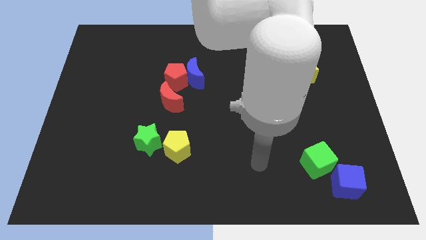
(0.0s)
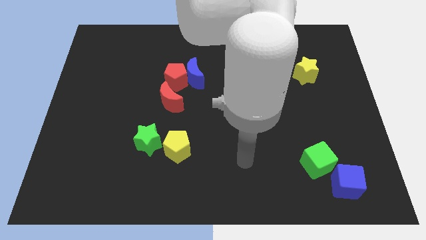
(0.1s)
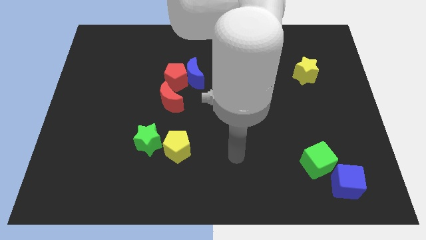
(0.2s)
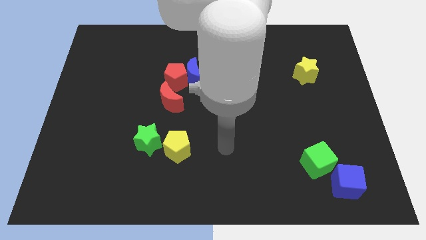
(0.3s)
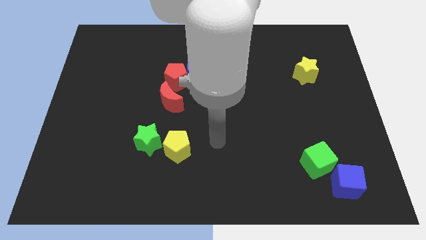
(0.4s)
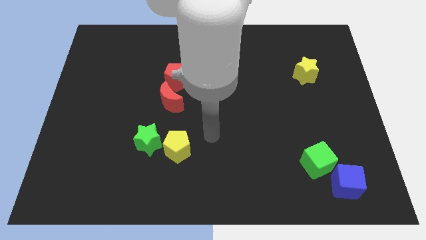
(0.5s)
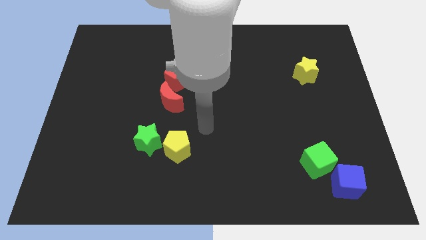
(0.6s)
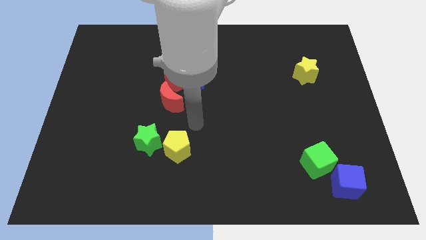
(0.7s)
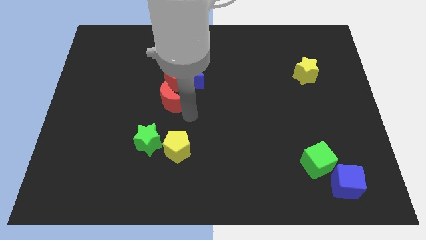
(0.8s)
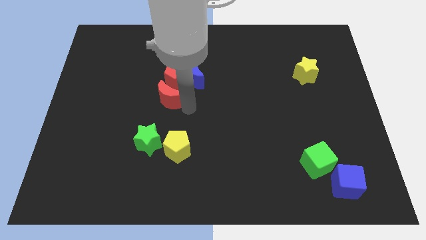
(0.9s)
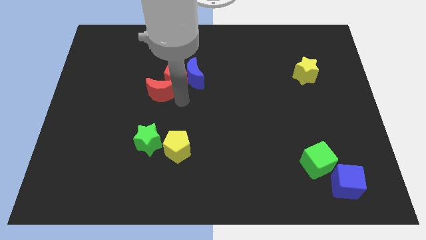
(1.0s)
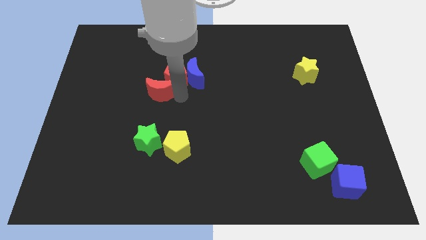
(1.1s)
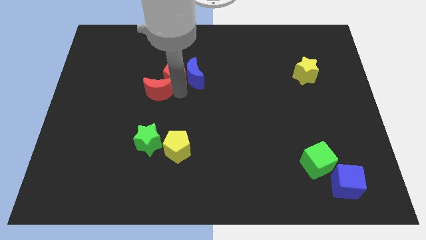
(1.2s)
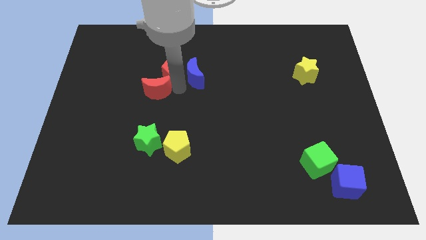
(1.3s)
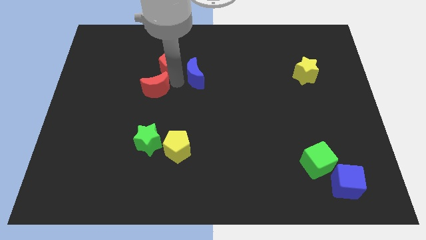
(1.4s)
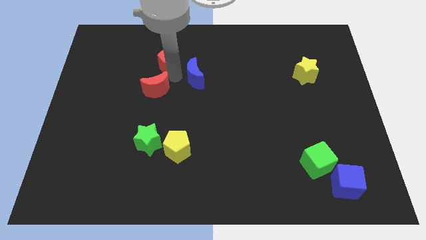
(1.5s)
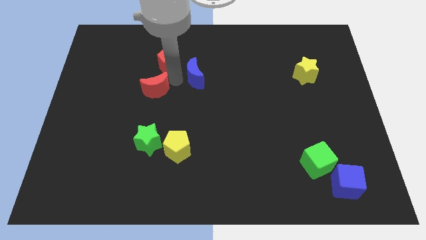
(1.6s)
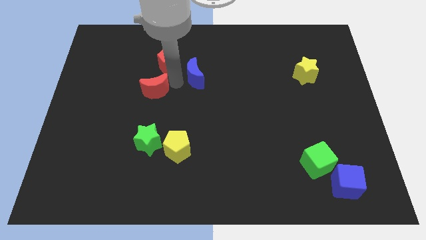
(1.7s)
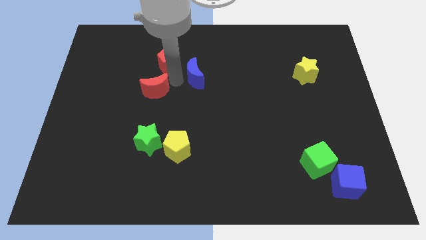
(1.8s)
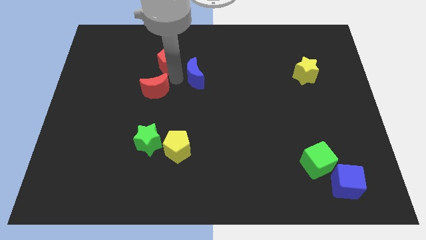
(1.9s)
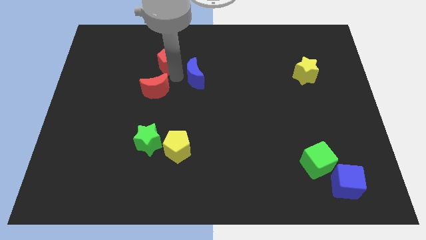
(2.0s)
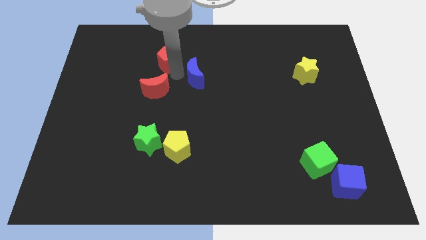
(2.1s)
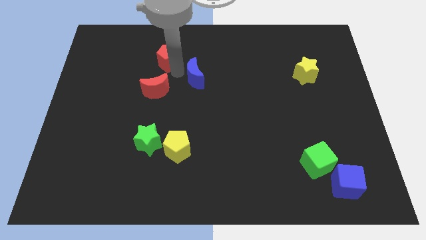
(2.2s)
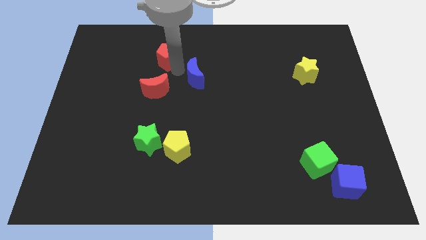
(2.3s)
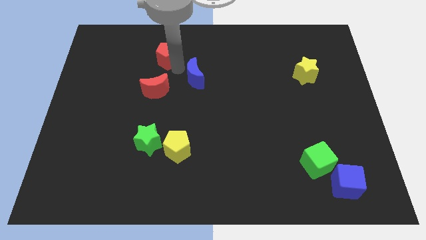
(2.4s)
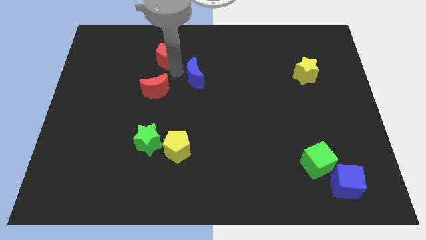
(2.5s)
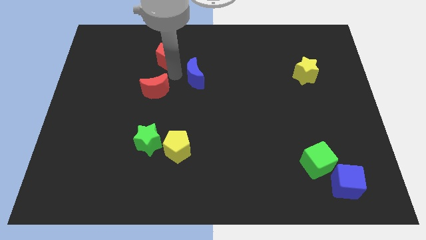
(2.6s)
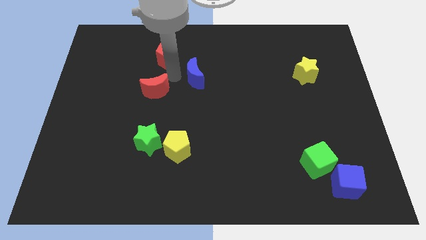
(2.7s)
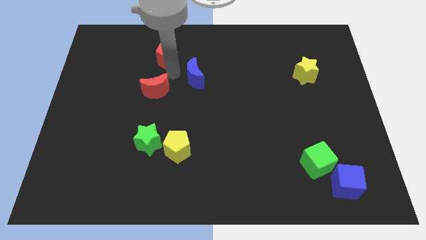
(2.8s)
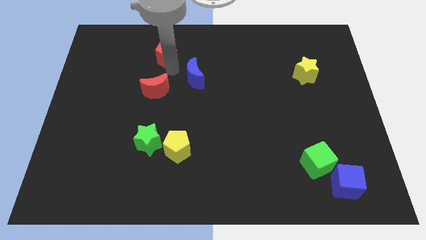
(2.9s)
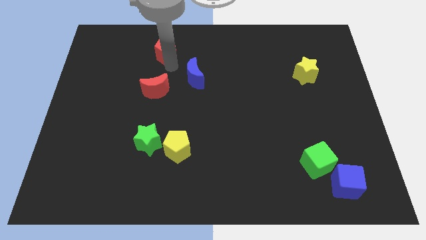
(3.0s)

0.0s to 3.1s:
move the red pentagon away from the blue moon and red moon

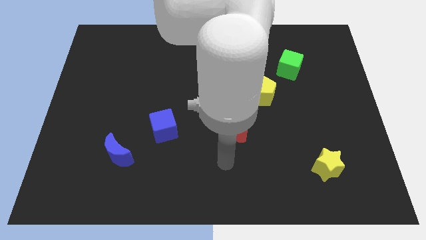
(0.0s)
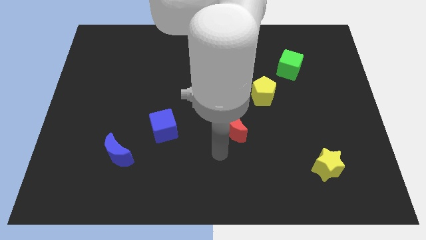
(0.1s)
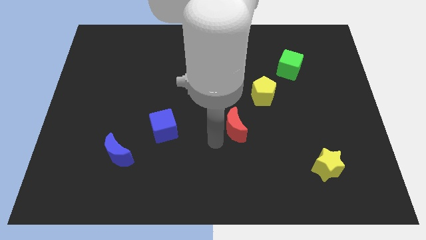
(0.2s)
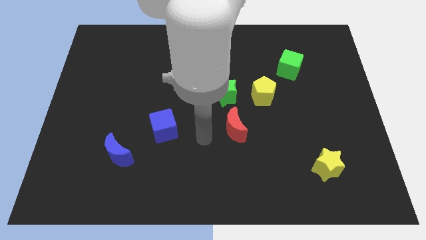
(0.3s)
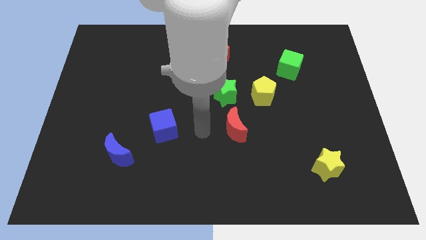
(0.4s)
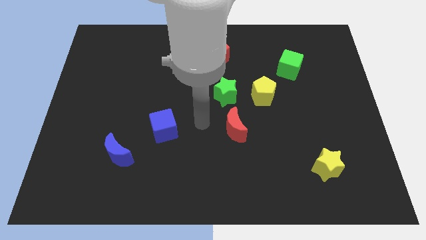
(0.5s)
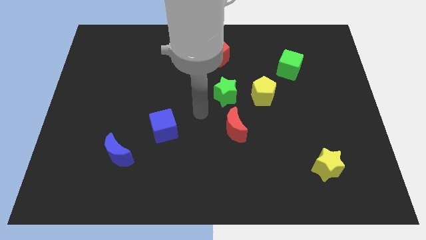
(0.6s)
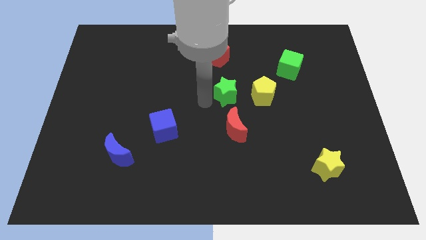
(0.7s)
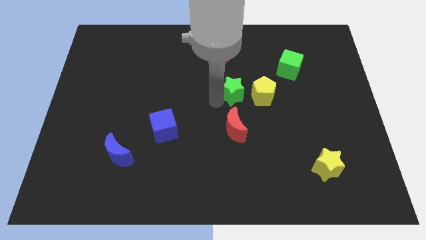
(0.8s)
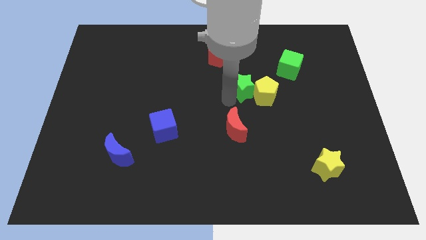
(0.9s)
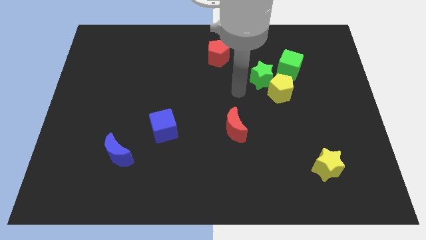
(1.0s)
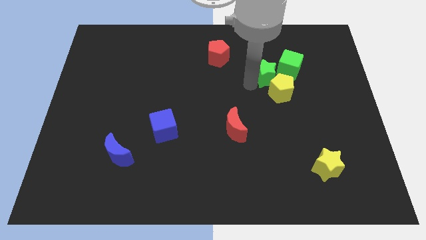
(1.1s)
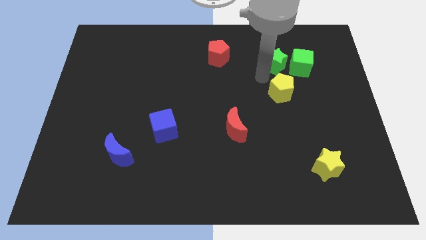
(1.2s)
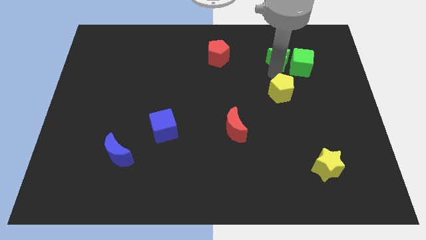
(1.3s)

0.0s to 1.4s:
separate the yellow pentagon from the green star

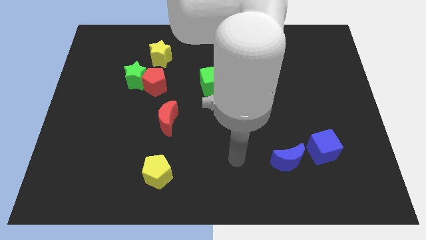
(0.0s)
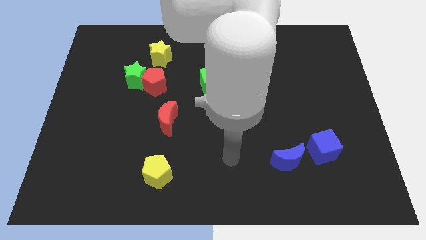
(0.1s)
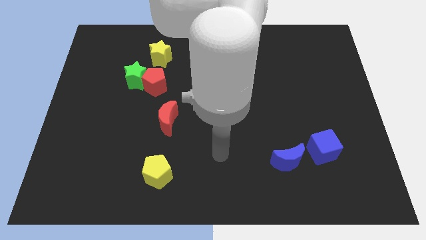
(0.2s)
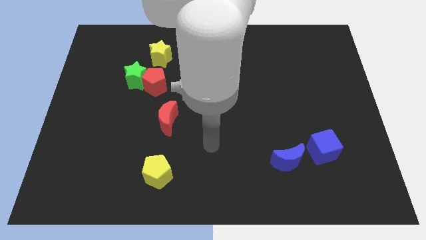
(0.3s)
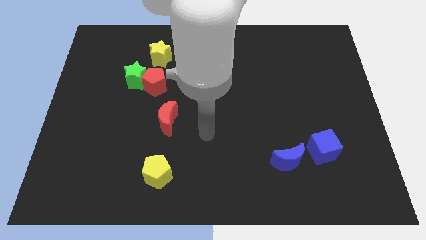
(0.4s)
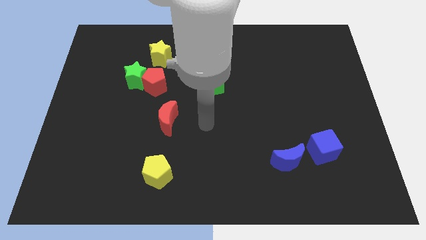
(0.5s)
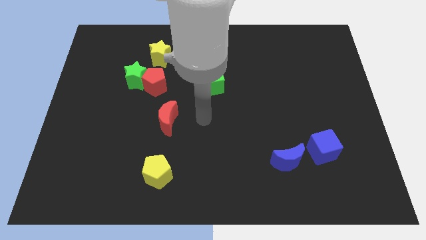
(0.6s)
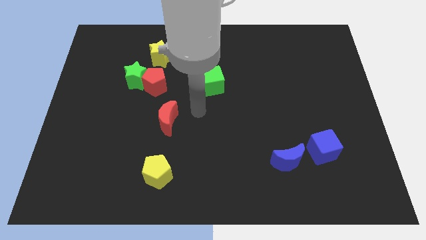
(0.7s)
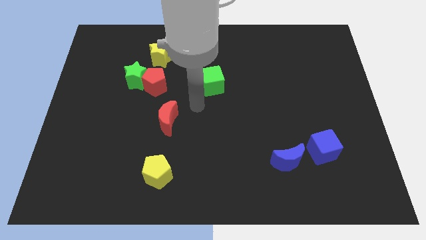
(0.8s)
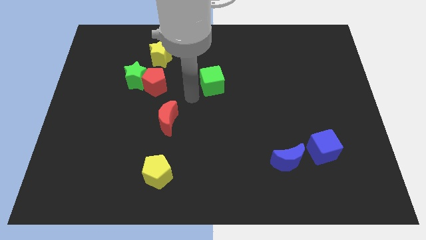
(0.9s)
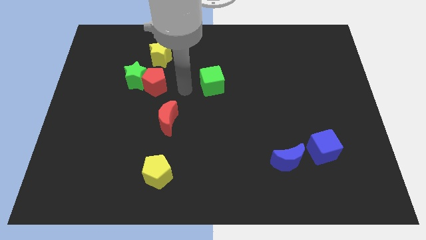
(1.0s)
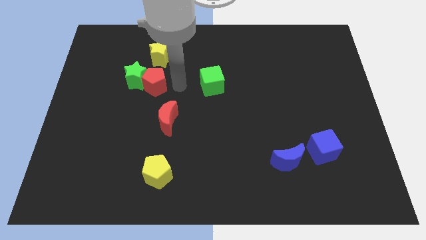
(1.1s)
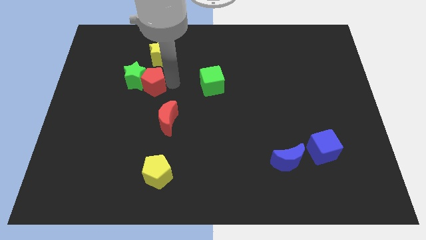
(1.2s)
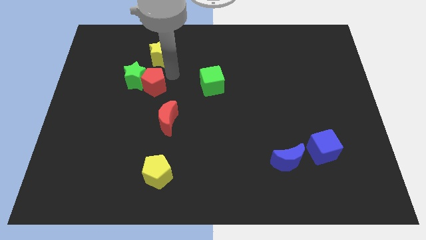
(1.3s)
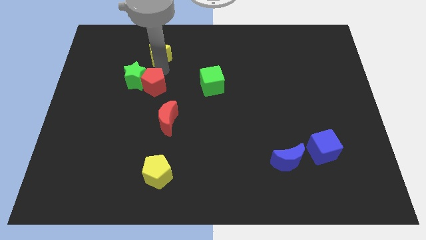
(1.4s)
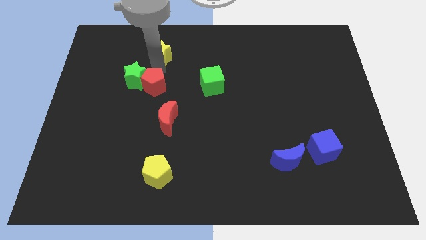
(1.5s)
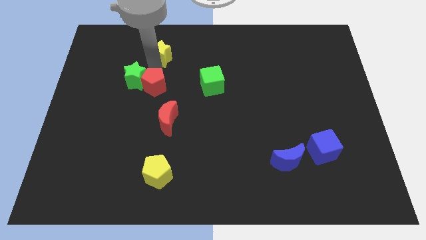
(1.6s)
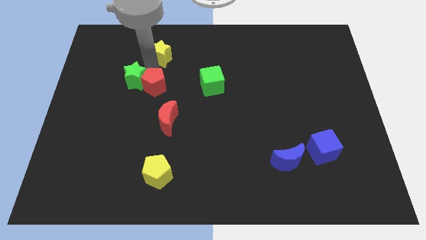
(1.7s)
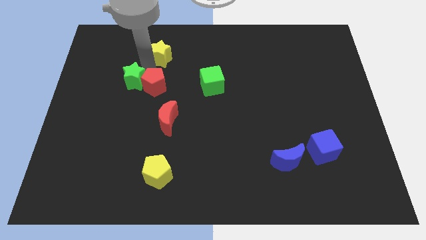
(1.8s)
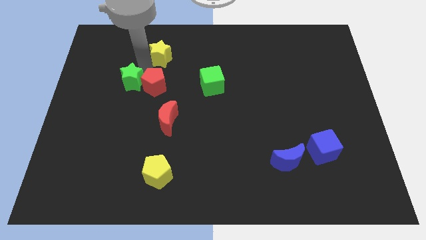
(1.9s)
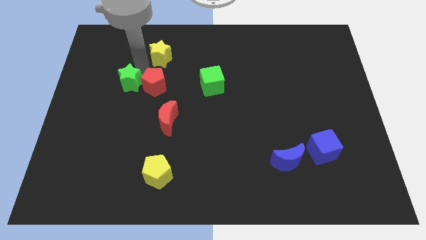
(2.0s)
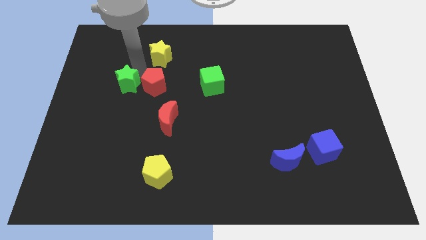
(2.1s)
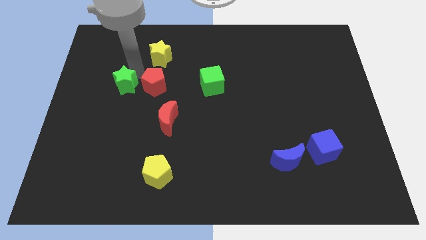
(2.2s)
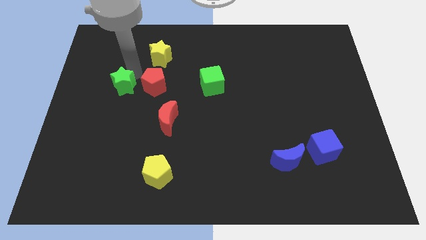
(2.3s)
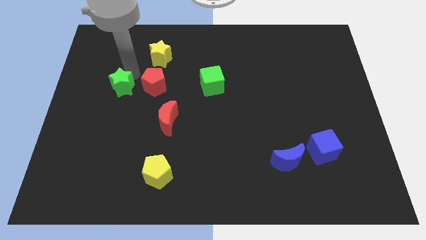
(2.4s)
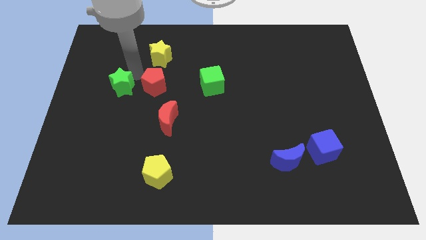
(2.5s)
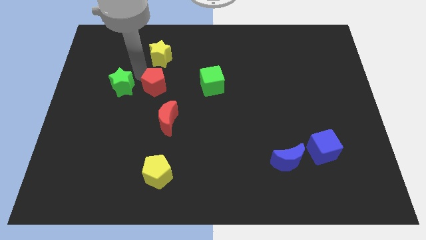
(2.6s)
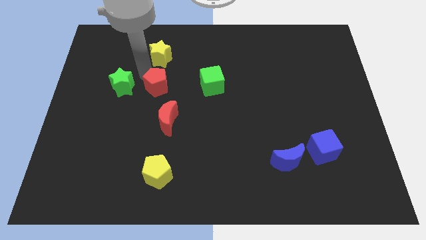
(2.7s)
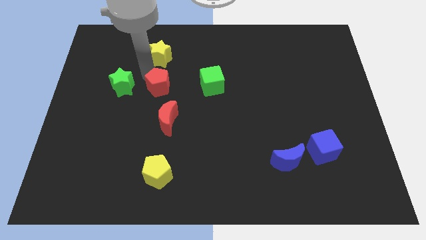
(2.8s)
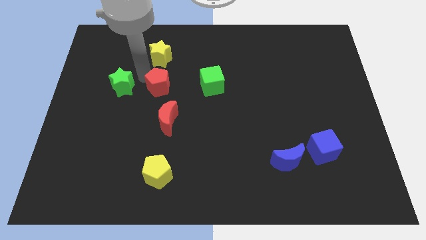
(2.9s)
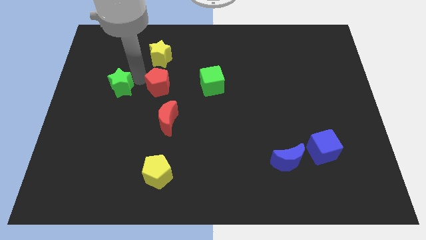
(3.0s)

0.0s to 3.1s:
pull the green star apart from the red pentagon and yellow star

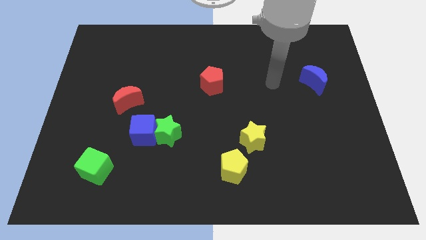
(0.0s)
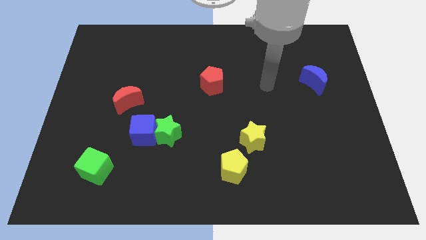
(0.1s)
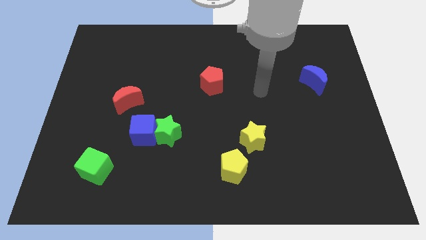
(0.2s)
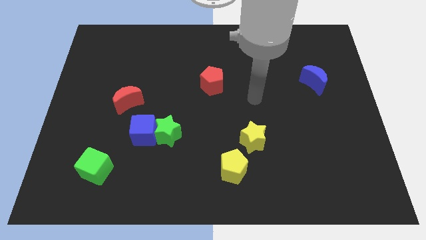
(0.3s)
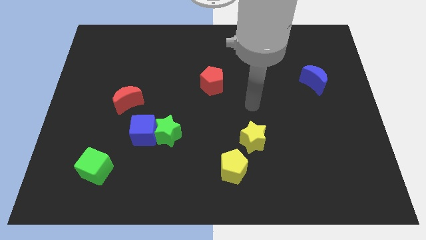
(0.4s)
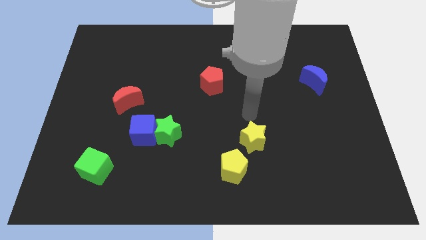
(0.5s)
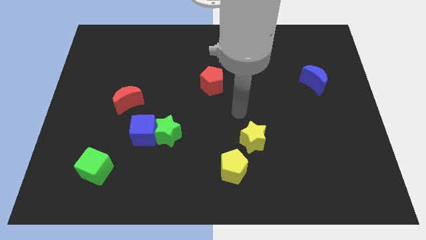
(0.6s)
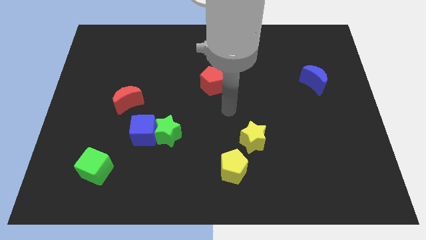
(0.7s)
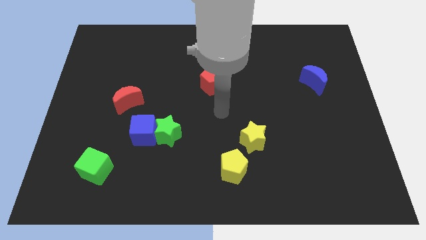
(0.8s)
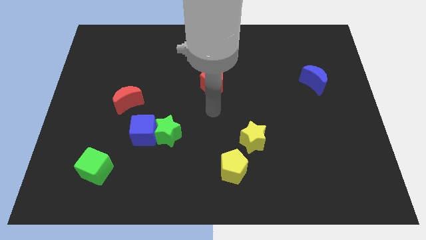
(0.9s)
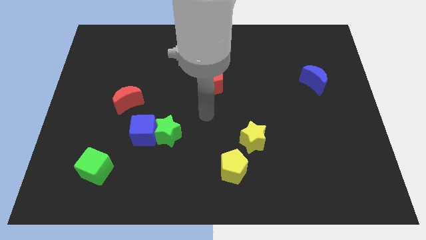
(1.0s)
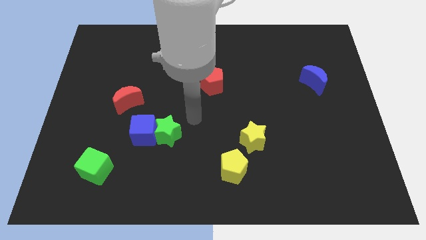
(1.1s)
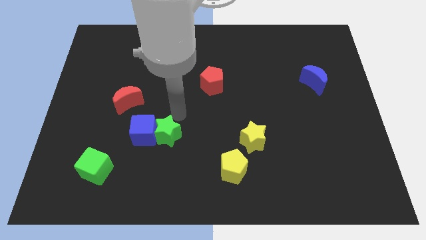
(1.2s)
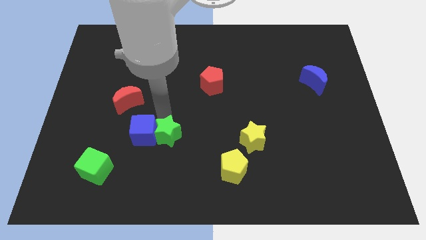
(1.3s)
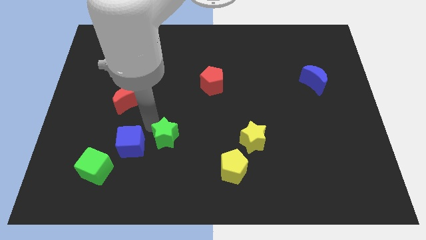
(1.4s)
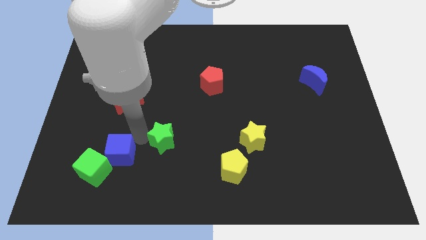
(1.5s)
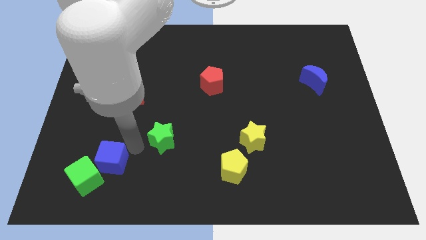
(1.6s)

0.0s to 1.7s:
separate the green star from the blue cube
